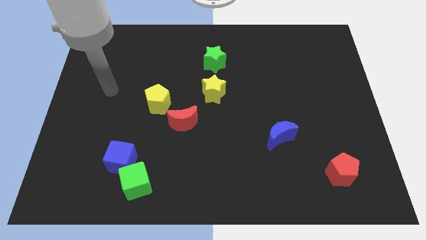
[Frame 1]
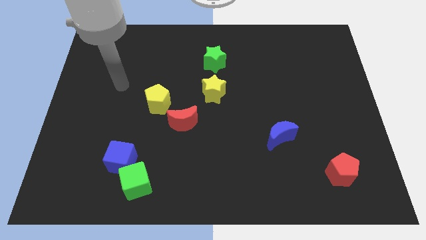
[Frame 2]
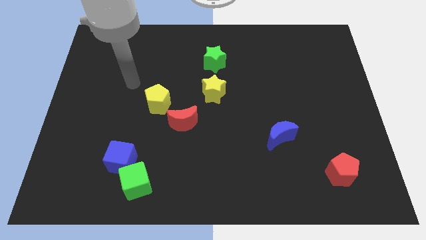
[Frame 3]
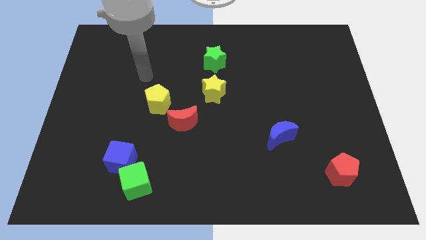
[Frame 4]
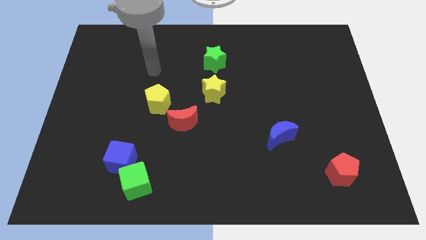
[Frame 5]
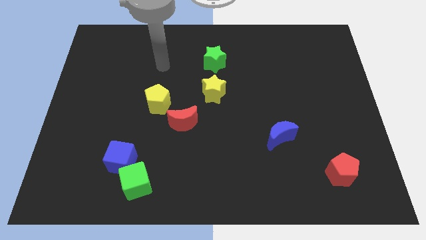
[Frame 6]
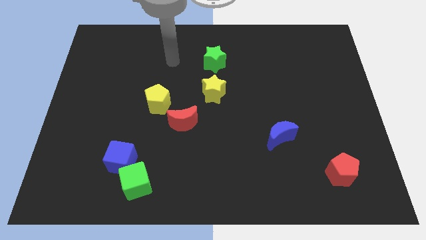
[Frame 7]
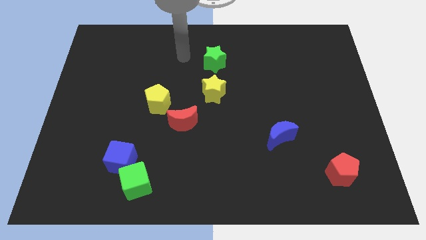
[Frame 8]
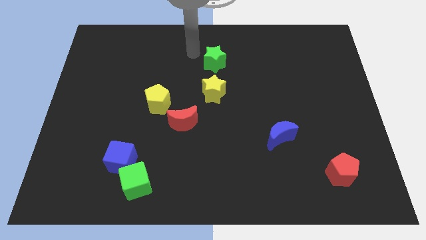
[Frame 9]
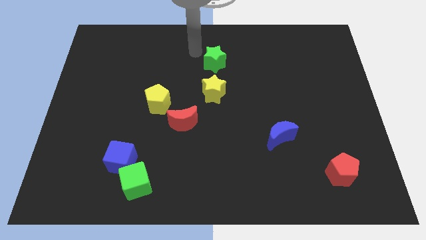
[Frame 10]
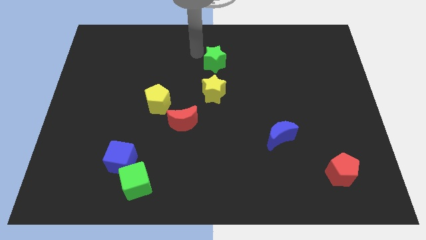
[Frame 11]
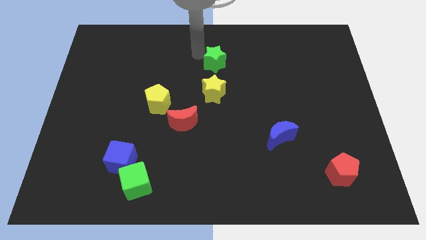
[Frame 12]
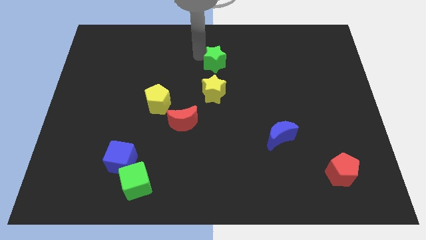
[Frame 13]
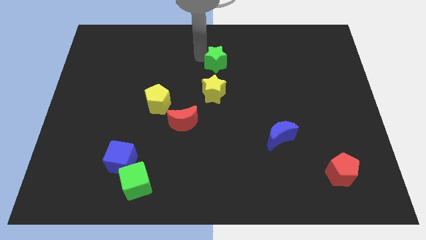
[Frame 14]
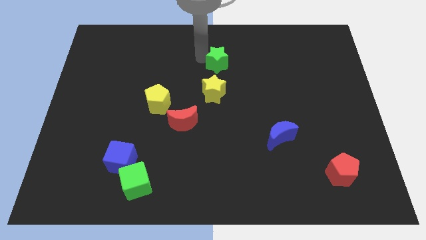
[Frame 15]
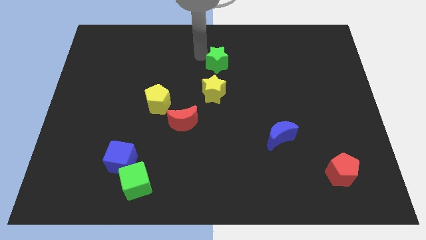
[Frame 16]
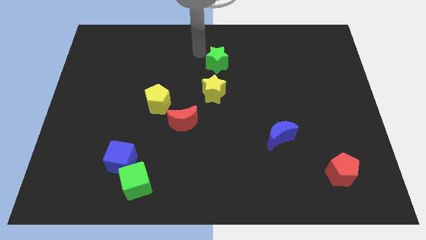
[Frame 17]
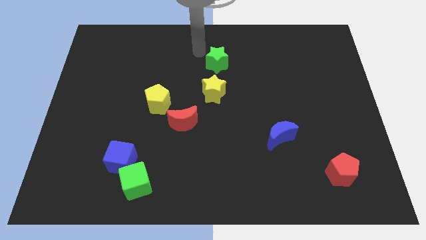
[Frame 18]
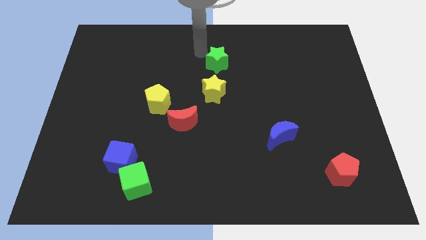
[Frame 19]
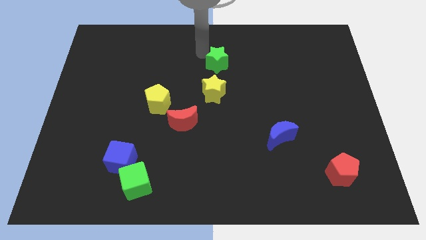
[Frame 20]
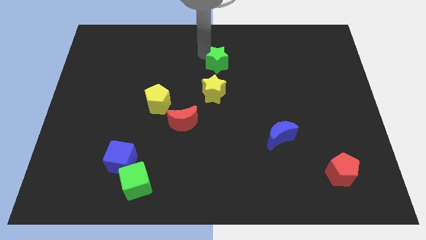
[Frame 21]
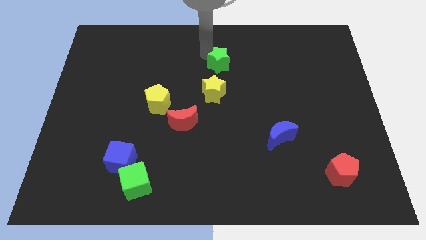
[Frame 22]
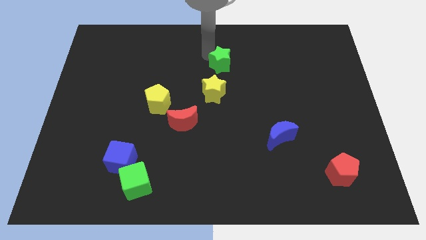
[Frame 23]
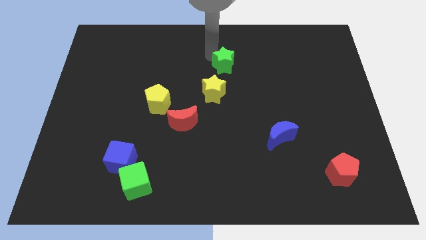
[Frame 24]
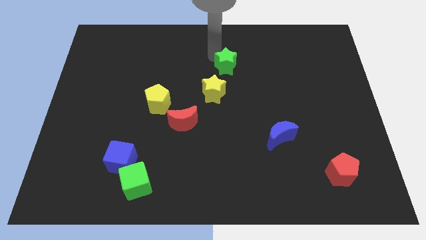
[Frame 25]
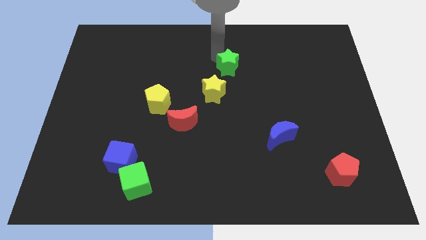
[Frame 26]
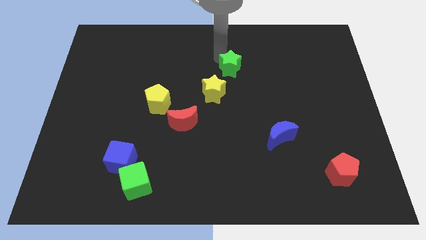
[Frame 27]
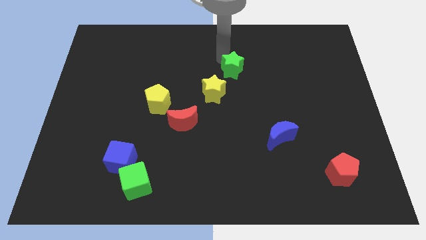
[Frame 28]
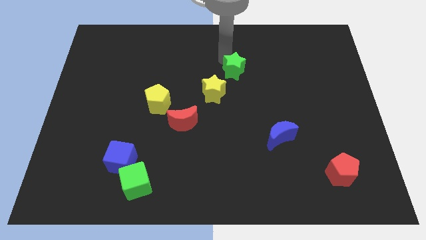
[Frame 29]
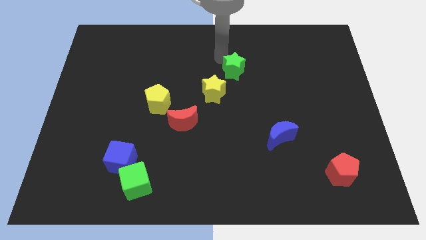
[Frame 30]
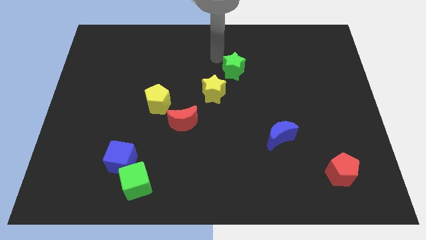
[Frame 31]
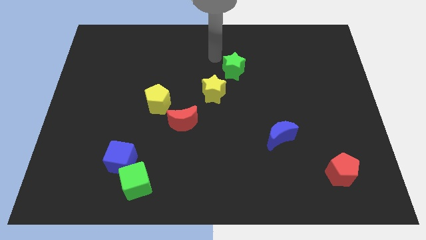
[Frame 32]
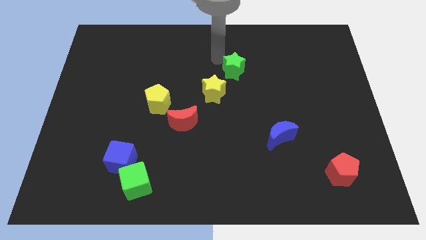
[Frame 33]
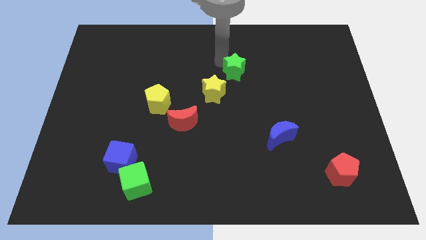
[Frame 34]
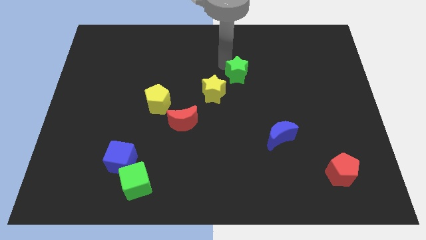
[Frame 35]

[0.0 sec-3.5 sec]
push the green star downwards and to the right diagonally somewhat

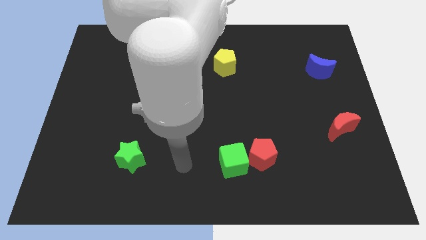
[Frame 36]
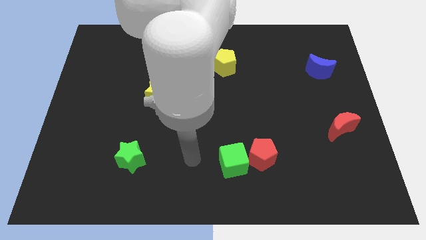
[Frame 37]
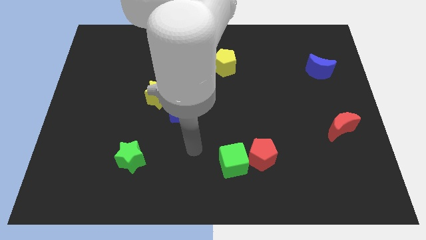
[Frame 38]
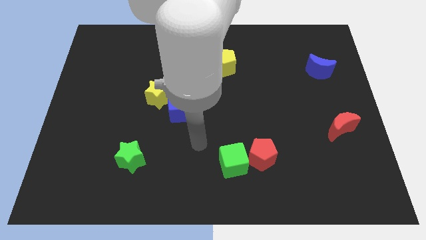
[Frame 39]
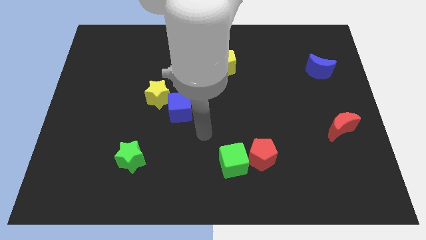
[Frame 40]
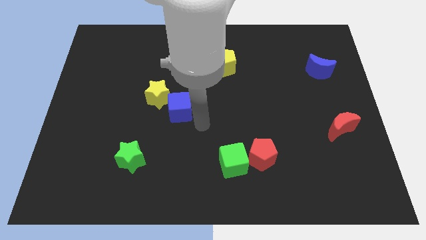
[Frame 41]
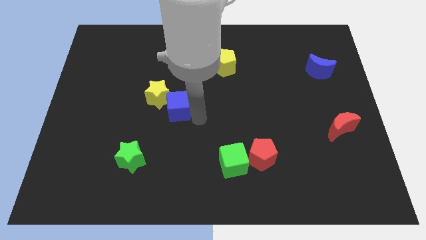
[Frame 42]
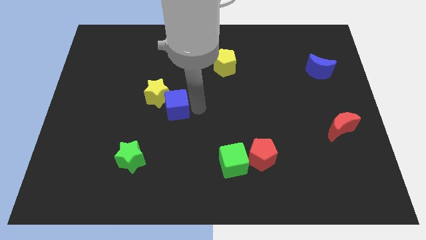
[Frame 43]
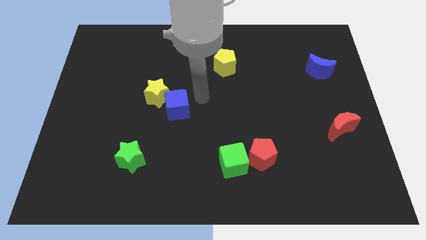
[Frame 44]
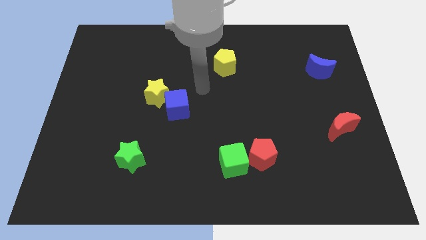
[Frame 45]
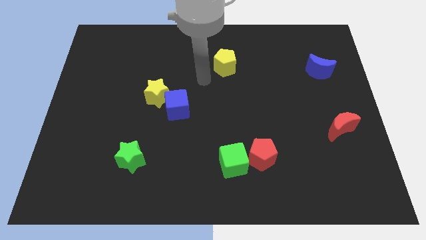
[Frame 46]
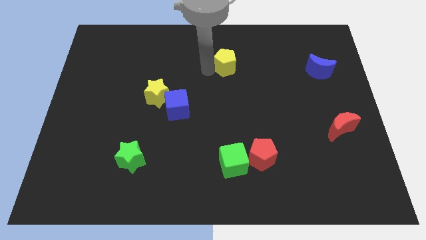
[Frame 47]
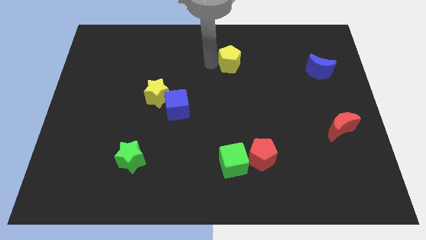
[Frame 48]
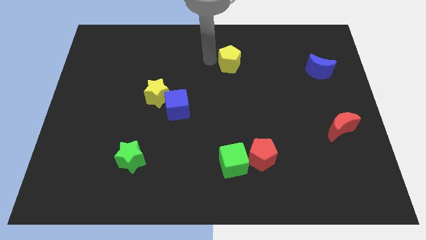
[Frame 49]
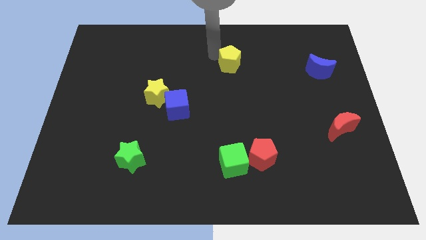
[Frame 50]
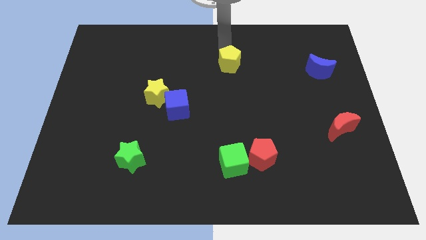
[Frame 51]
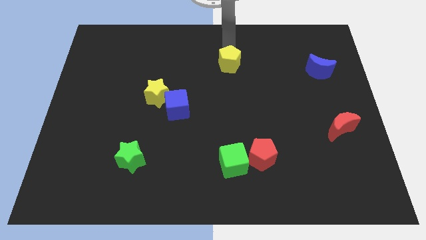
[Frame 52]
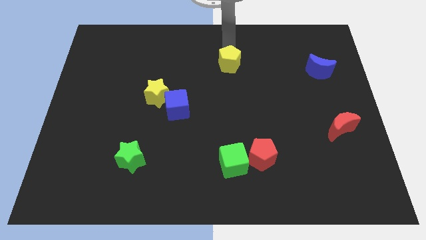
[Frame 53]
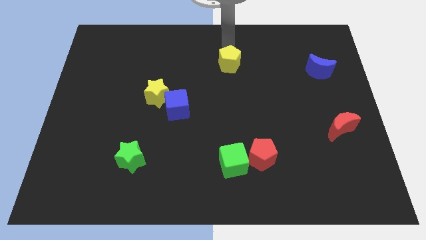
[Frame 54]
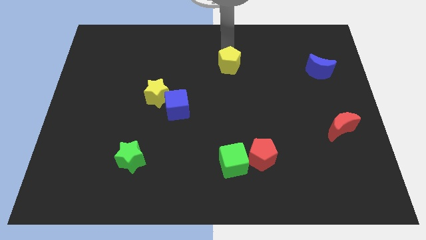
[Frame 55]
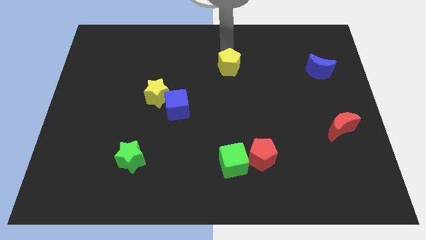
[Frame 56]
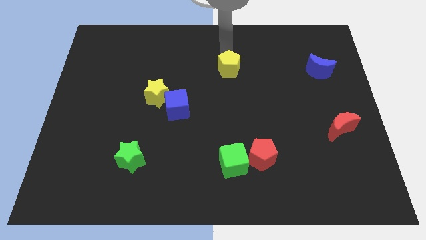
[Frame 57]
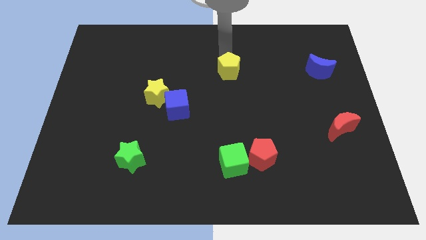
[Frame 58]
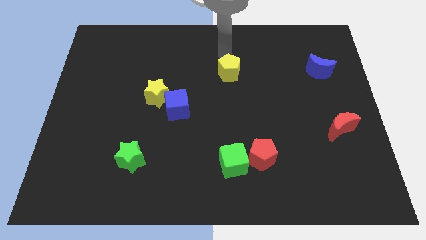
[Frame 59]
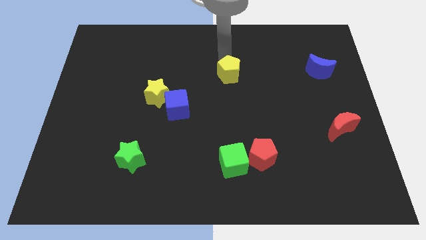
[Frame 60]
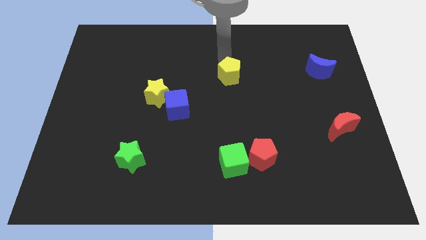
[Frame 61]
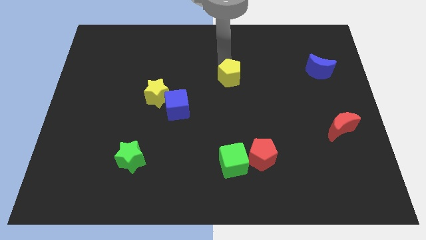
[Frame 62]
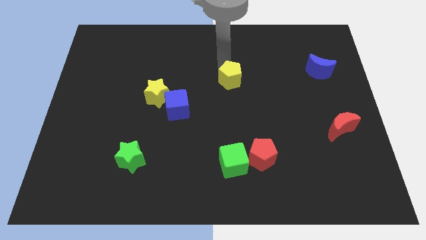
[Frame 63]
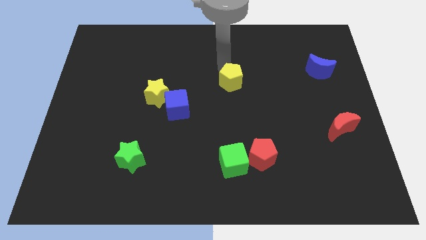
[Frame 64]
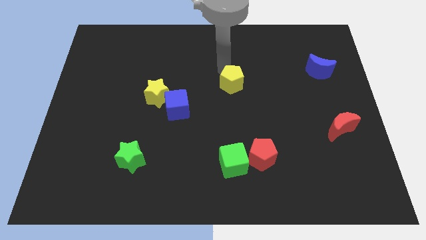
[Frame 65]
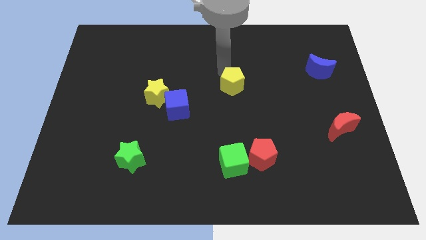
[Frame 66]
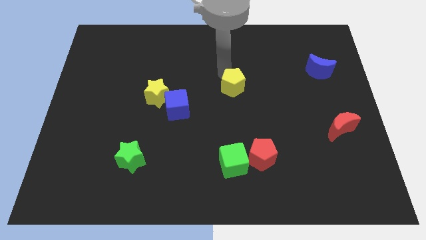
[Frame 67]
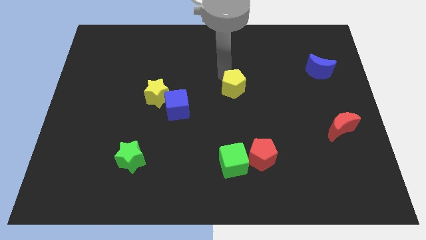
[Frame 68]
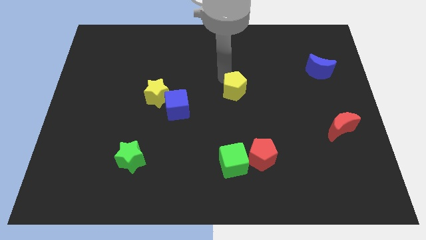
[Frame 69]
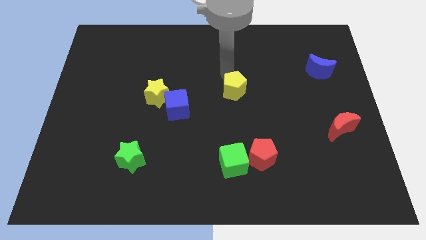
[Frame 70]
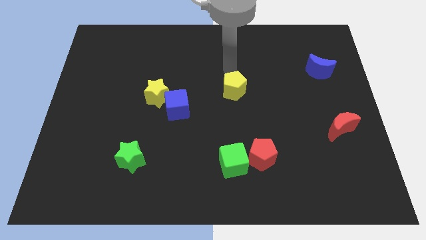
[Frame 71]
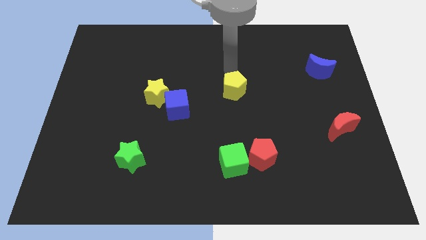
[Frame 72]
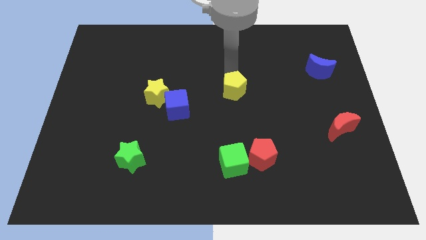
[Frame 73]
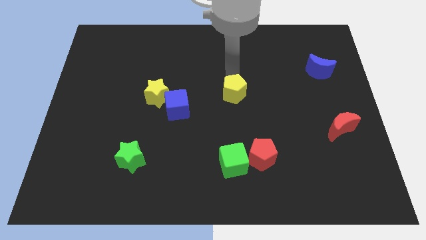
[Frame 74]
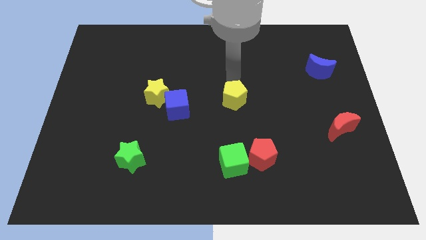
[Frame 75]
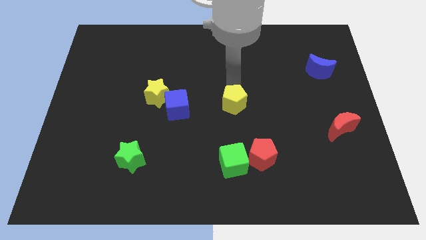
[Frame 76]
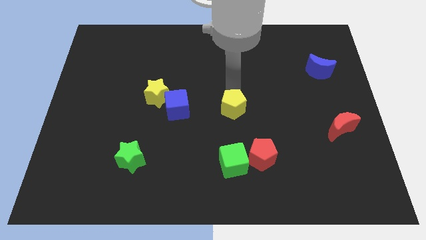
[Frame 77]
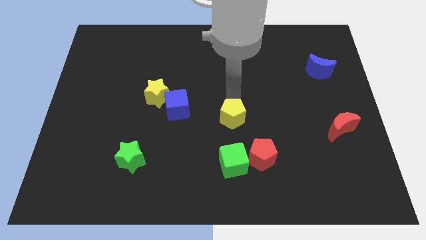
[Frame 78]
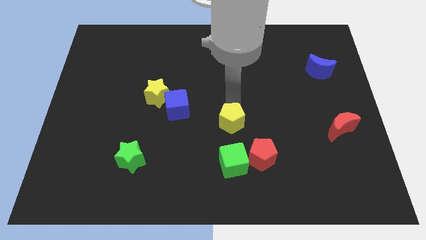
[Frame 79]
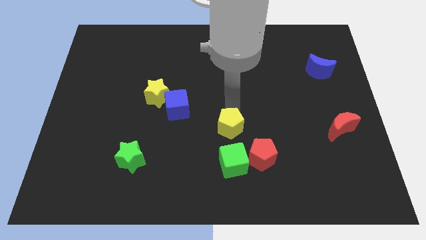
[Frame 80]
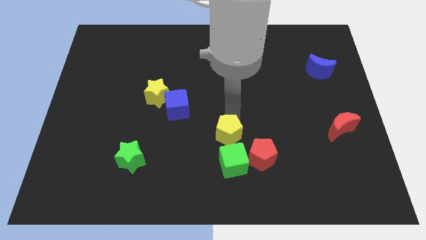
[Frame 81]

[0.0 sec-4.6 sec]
move the yellow pentagon down
